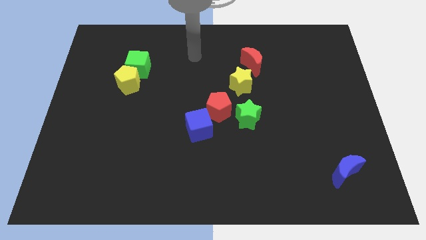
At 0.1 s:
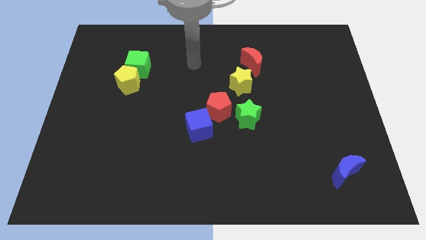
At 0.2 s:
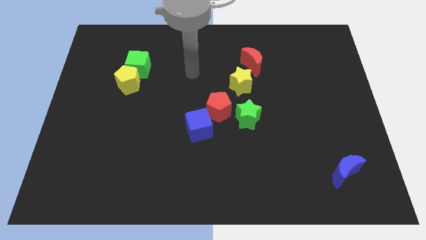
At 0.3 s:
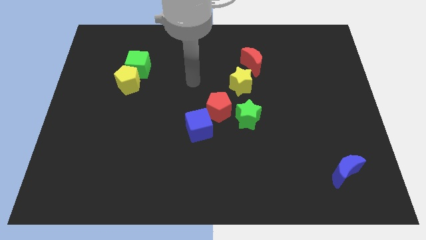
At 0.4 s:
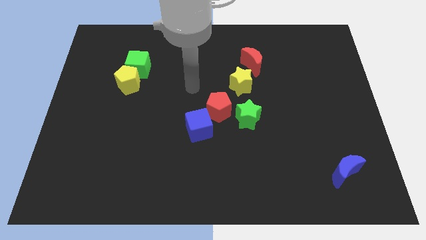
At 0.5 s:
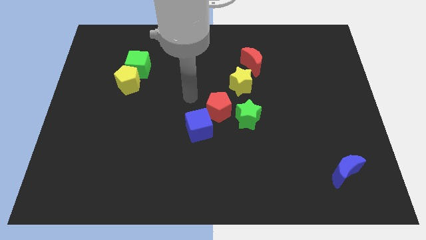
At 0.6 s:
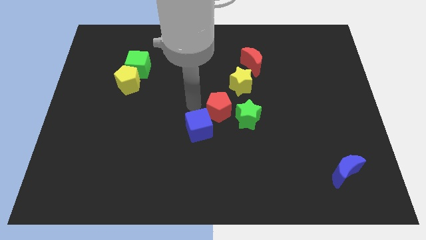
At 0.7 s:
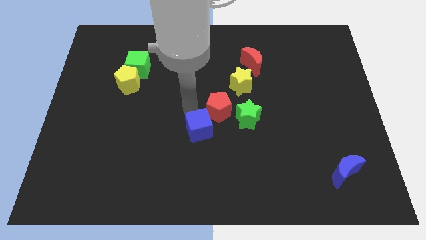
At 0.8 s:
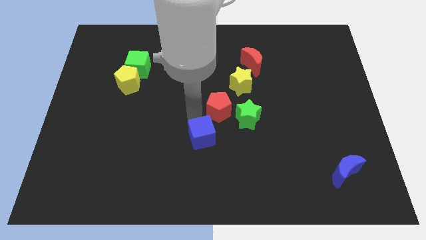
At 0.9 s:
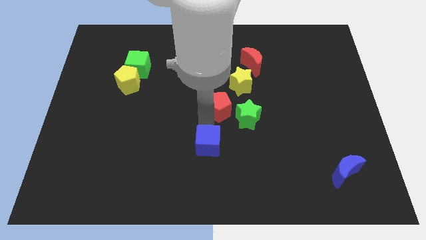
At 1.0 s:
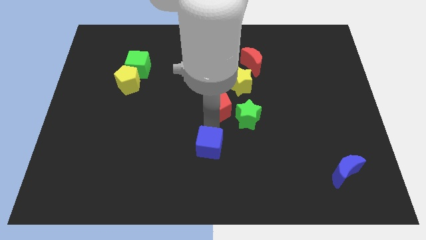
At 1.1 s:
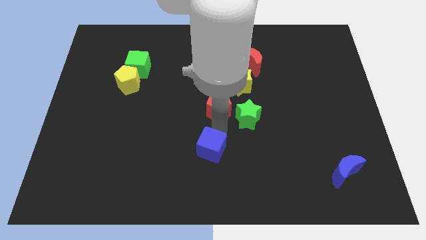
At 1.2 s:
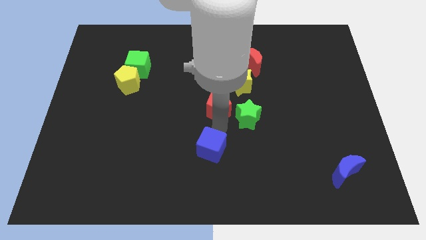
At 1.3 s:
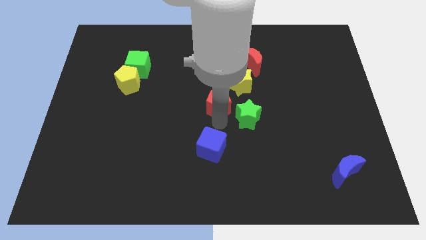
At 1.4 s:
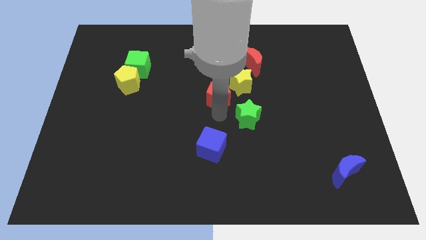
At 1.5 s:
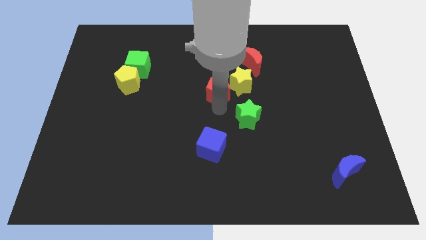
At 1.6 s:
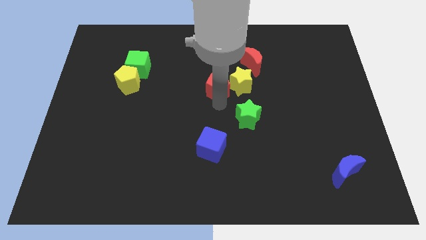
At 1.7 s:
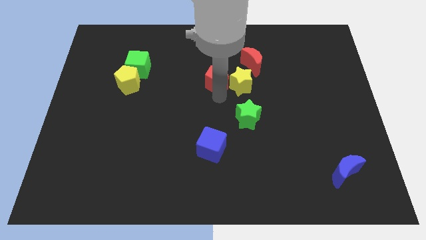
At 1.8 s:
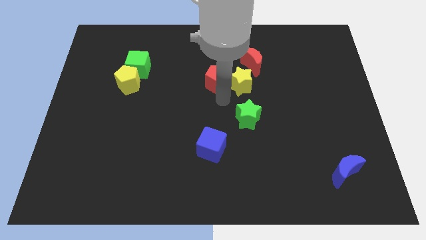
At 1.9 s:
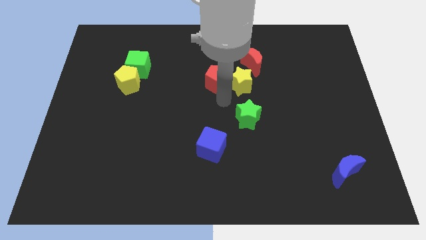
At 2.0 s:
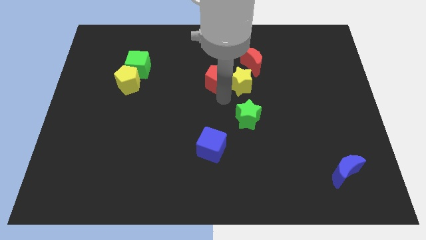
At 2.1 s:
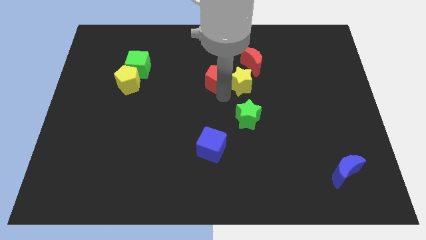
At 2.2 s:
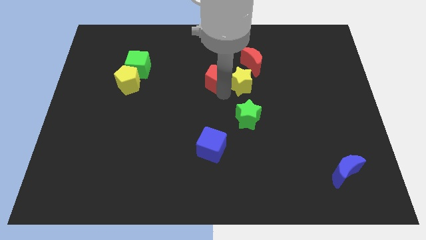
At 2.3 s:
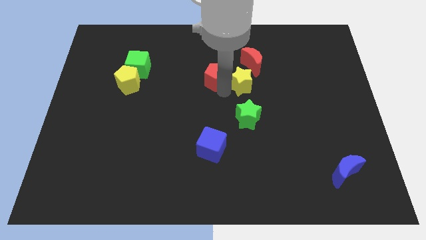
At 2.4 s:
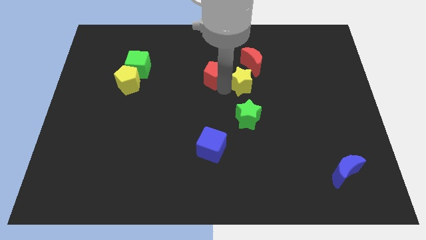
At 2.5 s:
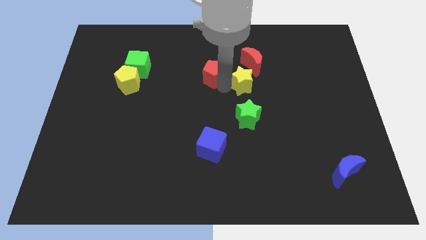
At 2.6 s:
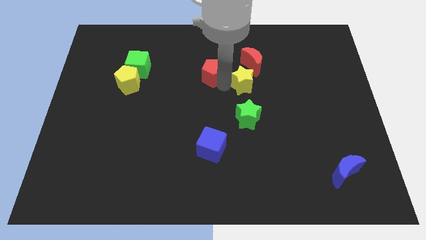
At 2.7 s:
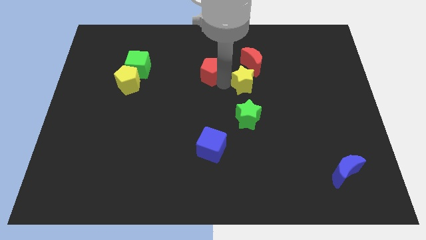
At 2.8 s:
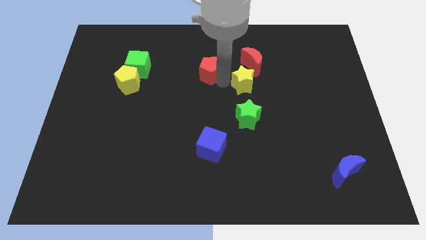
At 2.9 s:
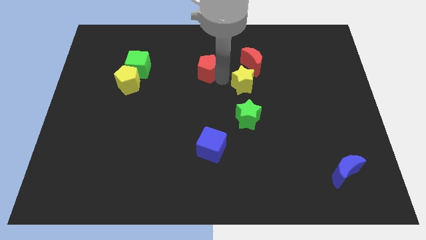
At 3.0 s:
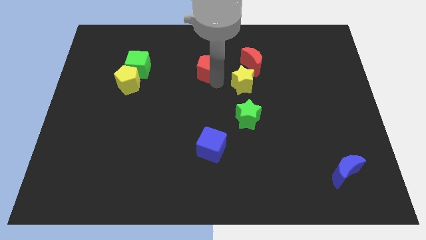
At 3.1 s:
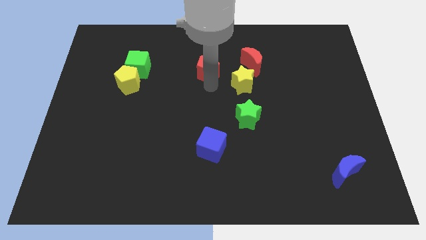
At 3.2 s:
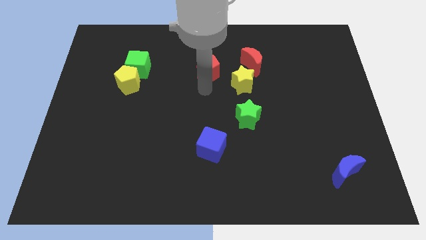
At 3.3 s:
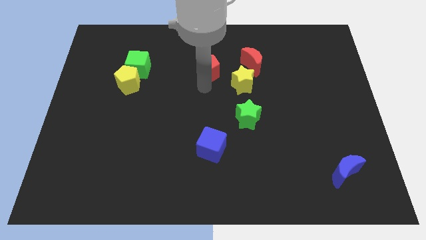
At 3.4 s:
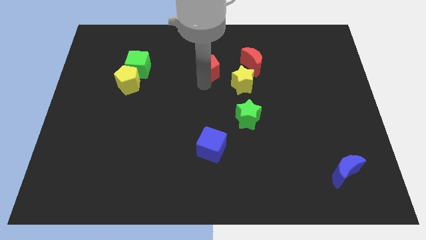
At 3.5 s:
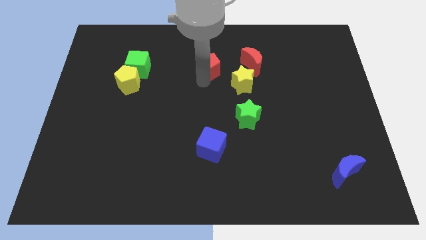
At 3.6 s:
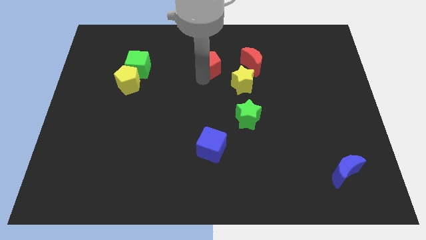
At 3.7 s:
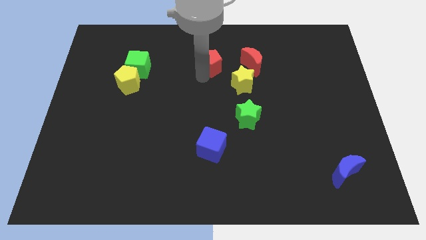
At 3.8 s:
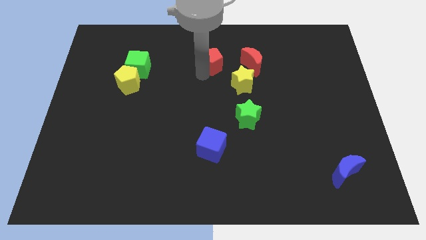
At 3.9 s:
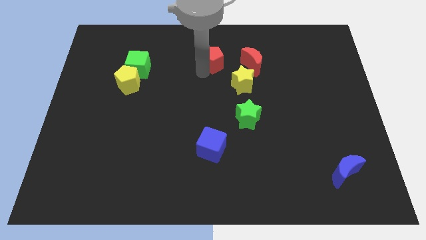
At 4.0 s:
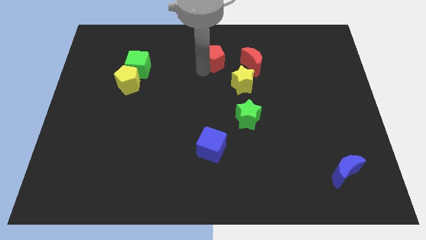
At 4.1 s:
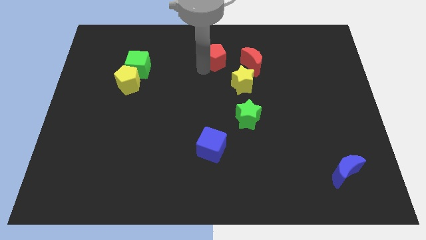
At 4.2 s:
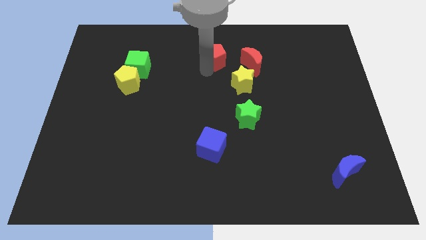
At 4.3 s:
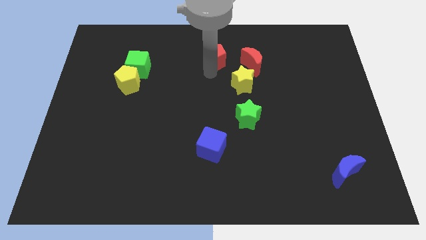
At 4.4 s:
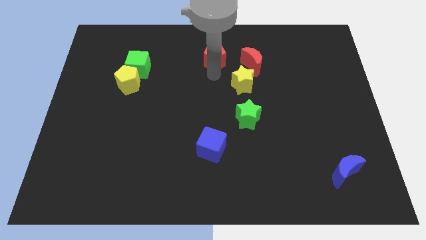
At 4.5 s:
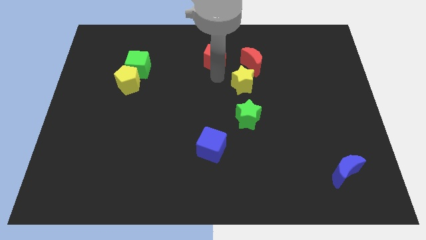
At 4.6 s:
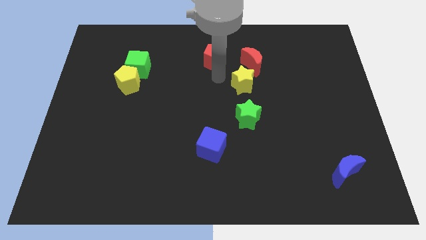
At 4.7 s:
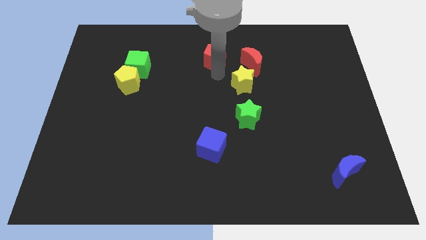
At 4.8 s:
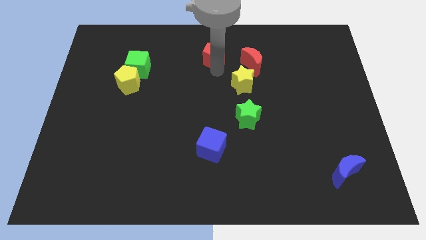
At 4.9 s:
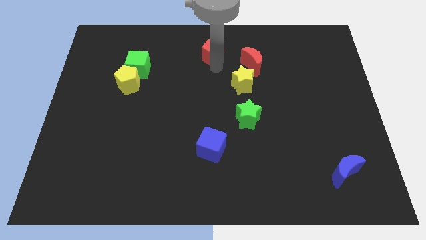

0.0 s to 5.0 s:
put the red pentagon to the top side

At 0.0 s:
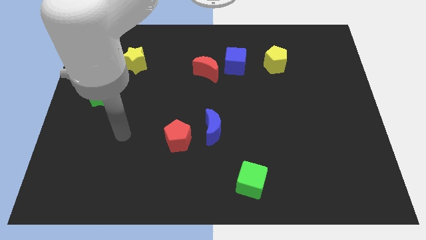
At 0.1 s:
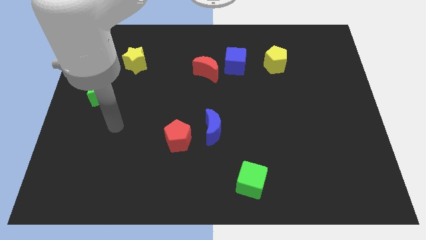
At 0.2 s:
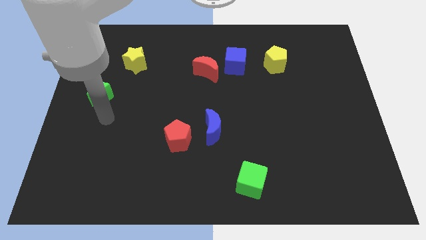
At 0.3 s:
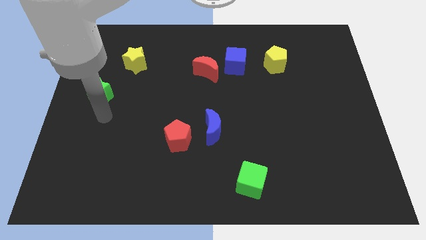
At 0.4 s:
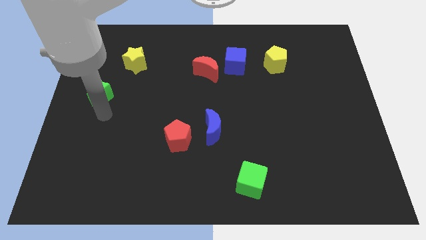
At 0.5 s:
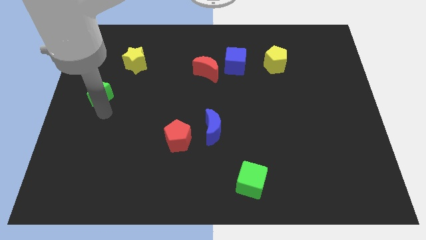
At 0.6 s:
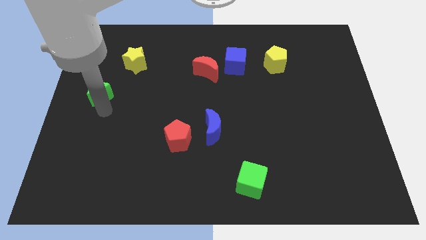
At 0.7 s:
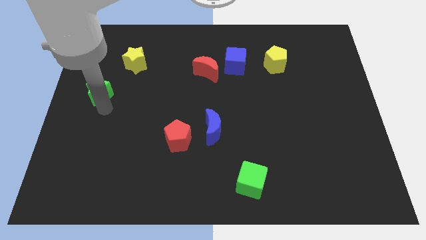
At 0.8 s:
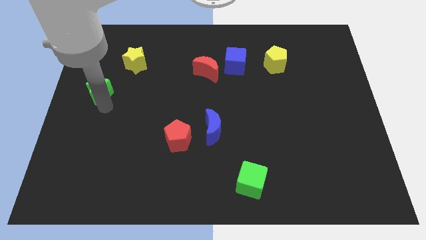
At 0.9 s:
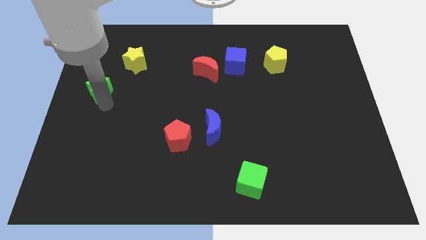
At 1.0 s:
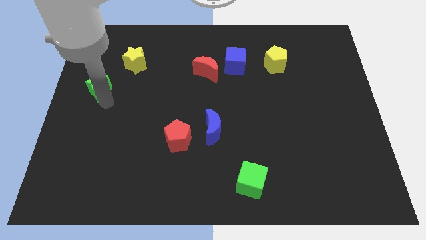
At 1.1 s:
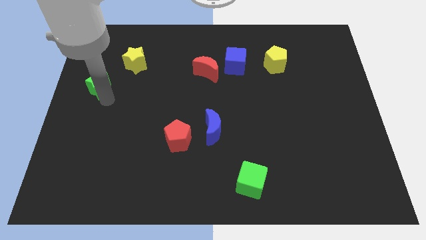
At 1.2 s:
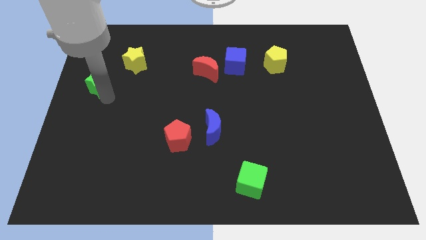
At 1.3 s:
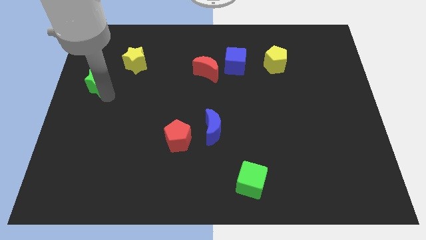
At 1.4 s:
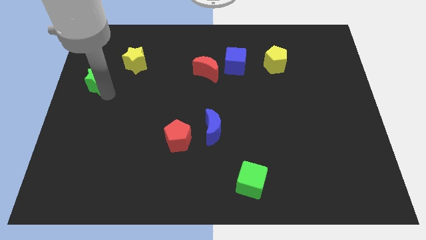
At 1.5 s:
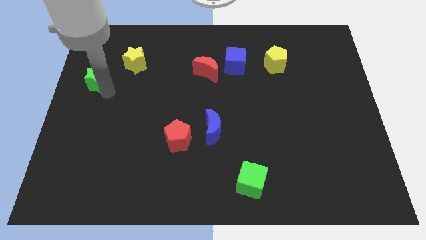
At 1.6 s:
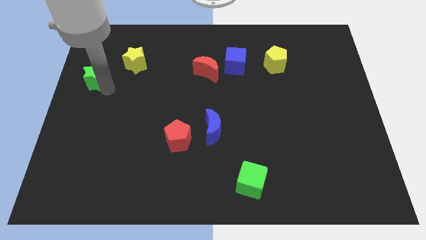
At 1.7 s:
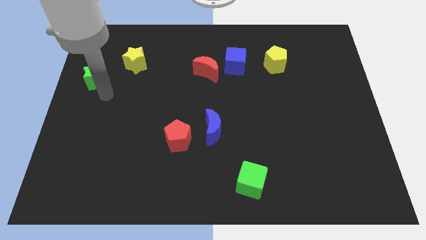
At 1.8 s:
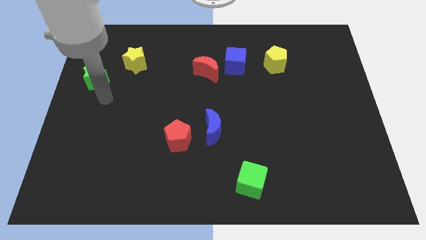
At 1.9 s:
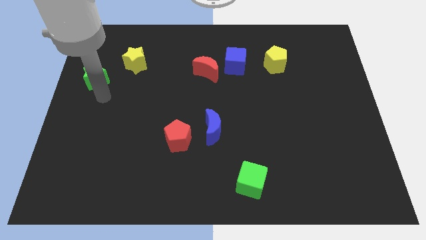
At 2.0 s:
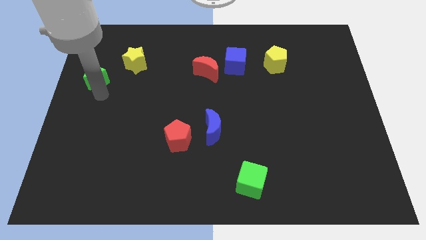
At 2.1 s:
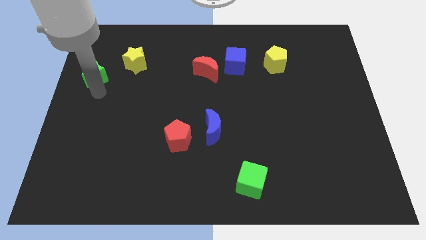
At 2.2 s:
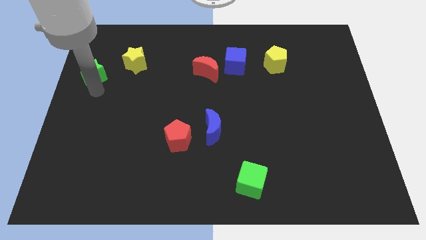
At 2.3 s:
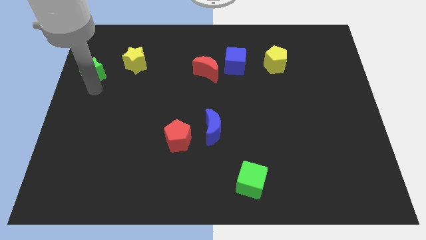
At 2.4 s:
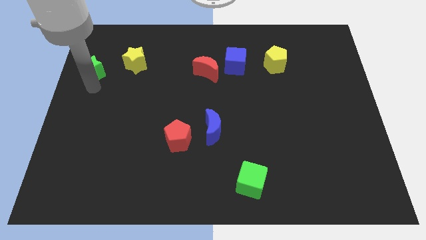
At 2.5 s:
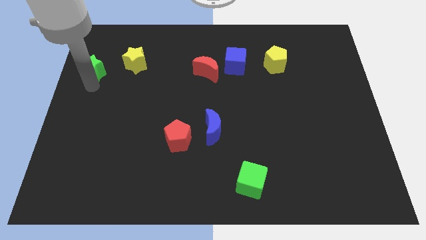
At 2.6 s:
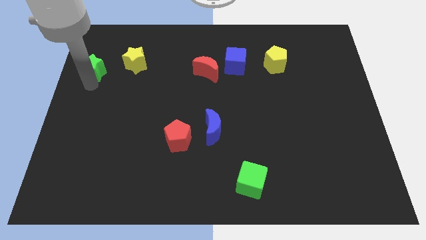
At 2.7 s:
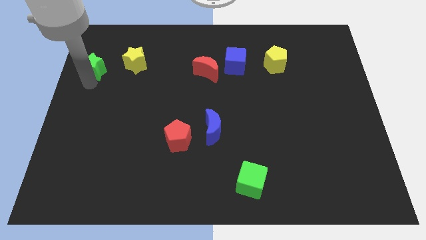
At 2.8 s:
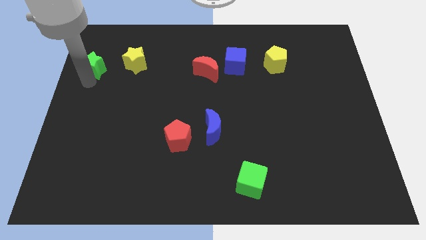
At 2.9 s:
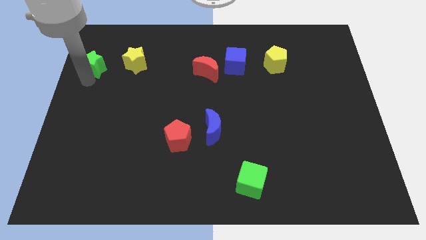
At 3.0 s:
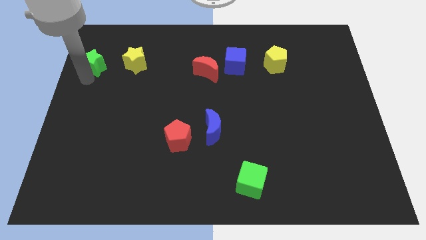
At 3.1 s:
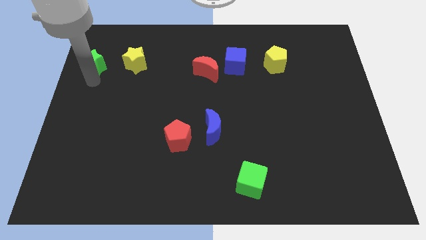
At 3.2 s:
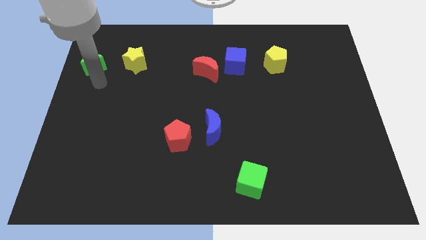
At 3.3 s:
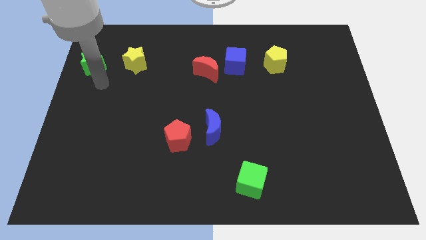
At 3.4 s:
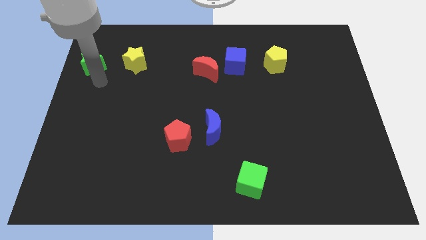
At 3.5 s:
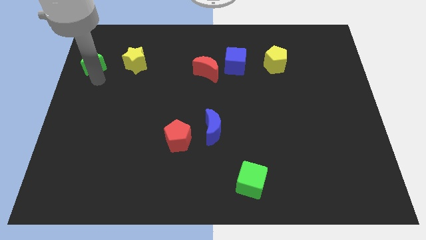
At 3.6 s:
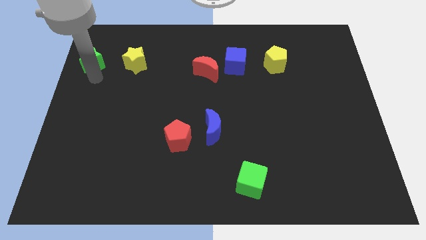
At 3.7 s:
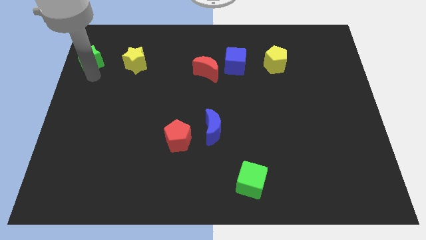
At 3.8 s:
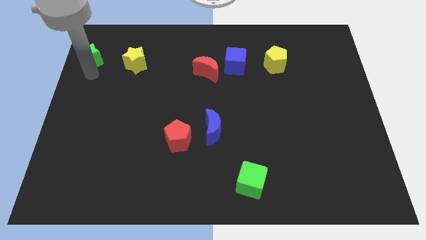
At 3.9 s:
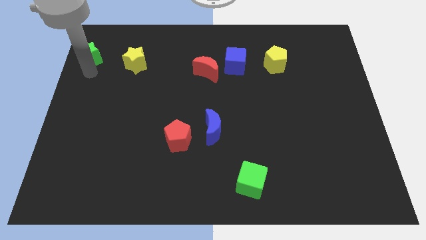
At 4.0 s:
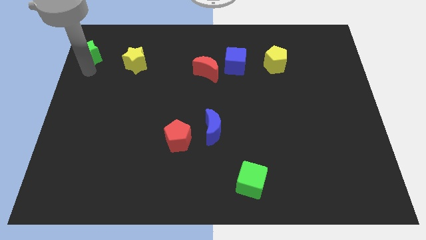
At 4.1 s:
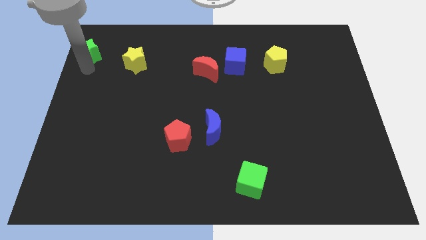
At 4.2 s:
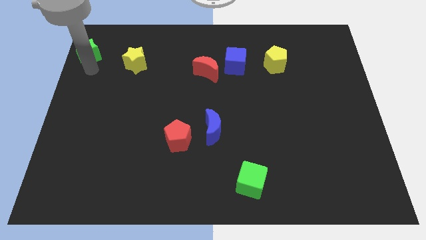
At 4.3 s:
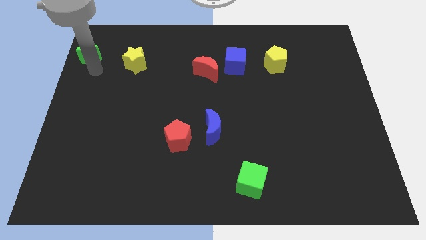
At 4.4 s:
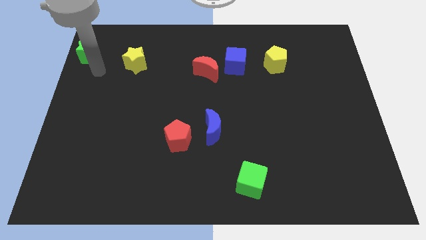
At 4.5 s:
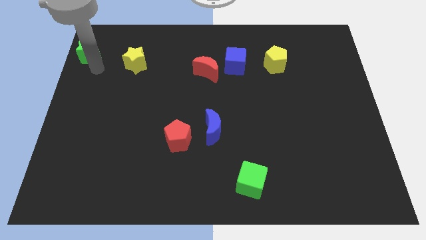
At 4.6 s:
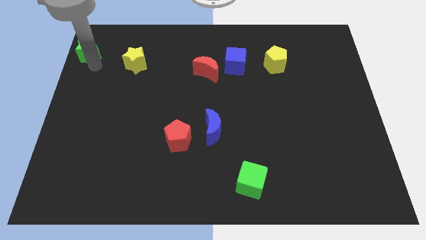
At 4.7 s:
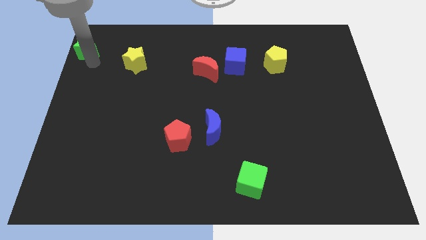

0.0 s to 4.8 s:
put the green star to the top left
